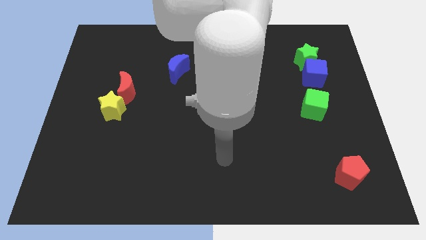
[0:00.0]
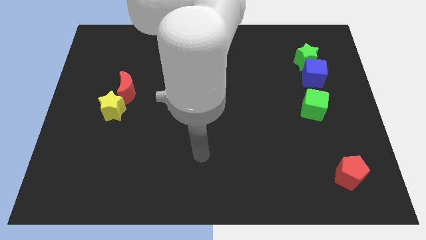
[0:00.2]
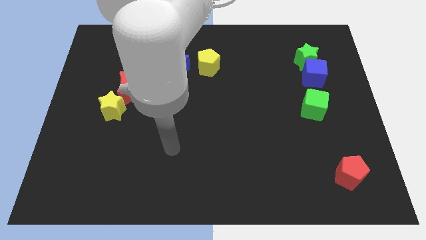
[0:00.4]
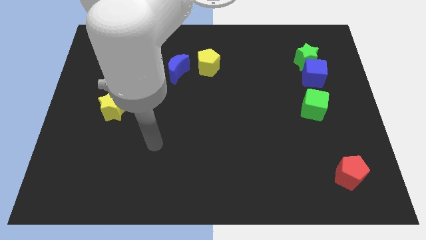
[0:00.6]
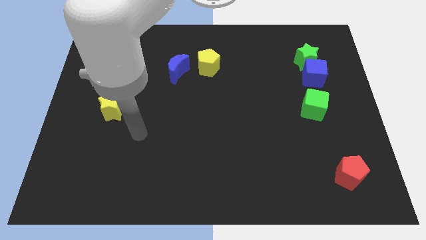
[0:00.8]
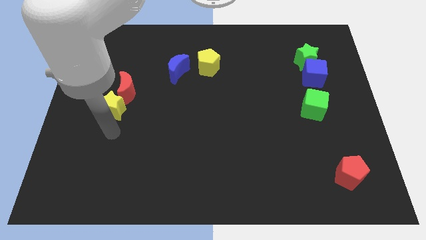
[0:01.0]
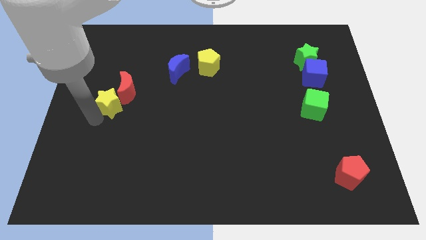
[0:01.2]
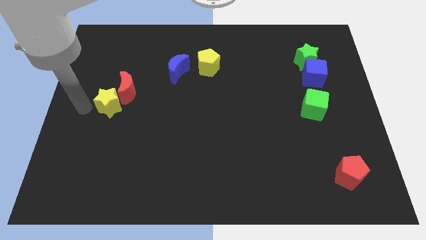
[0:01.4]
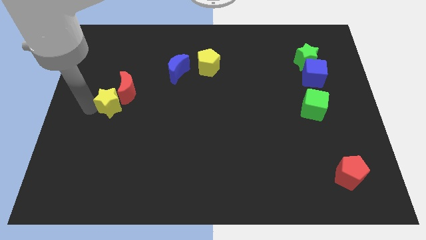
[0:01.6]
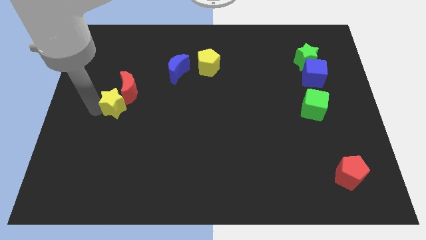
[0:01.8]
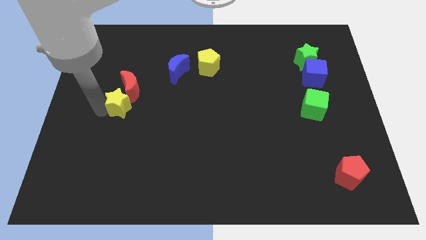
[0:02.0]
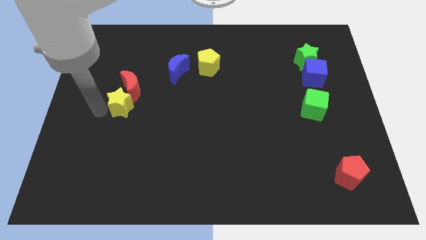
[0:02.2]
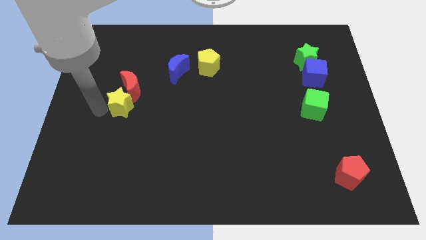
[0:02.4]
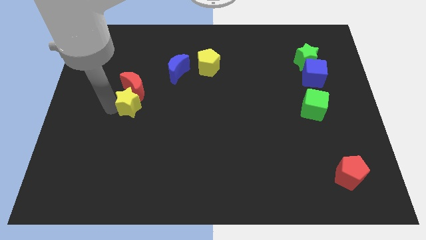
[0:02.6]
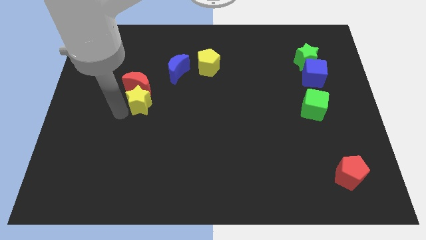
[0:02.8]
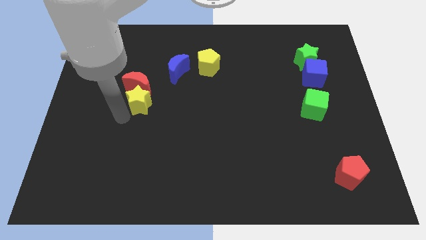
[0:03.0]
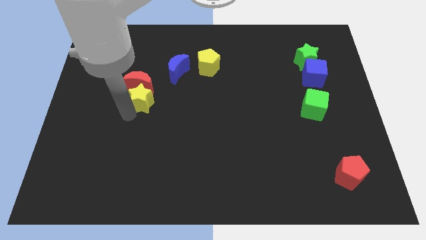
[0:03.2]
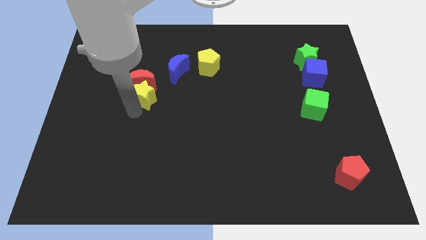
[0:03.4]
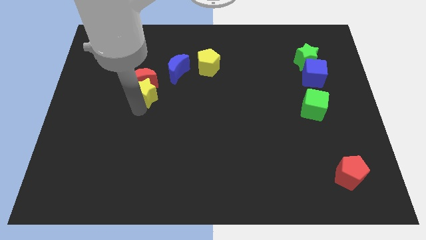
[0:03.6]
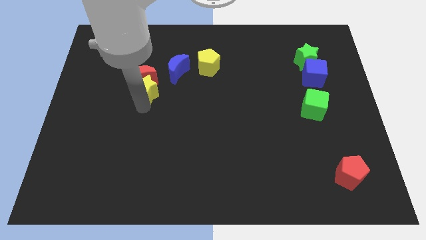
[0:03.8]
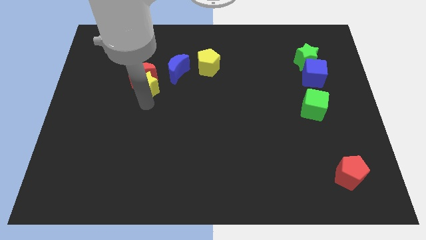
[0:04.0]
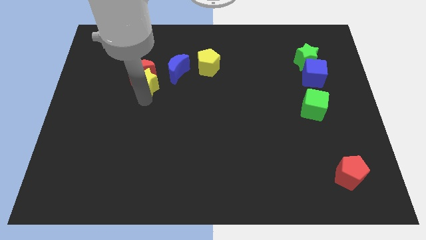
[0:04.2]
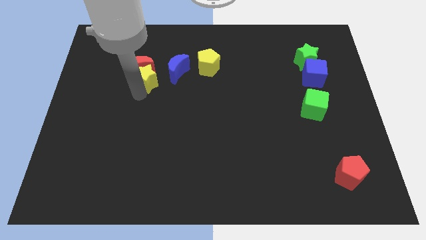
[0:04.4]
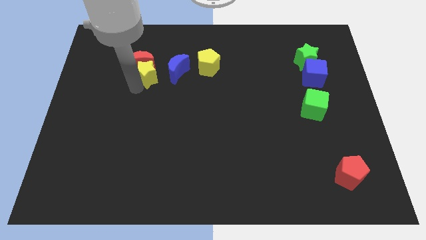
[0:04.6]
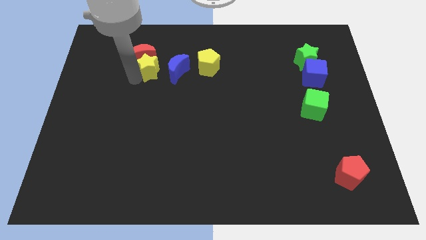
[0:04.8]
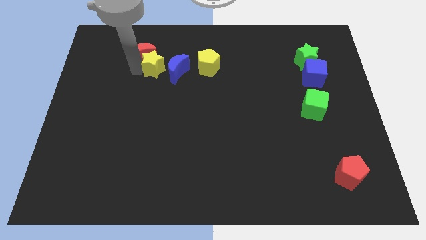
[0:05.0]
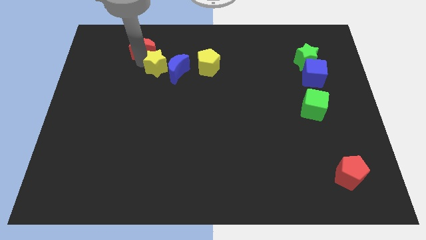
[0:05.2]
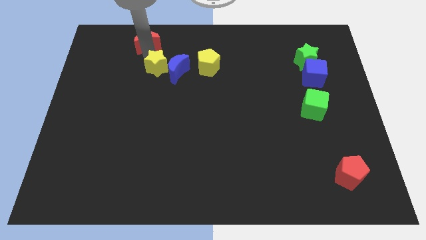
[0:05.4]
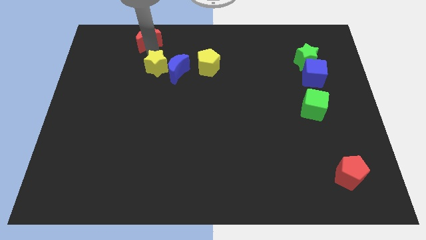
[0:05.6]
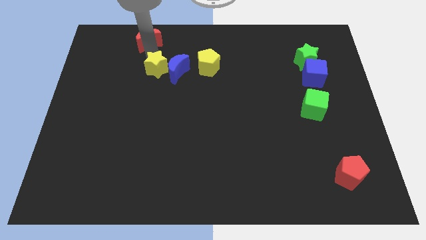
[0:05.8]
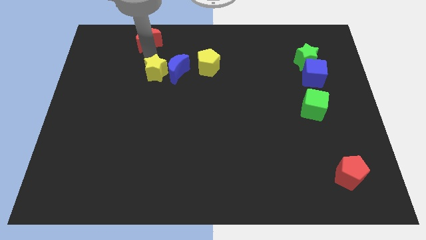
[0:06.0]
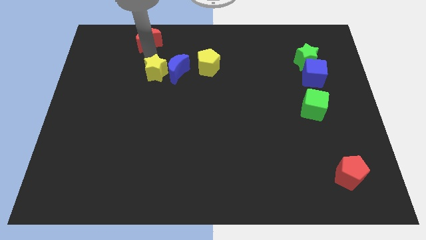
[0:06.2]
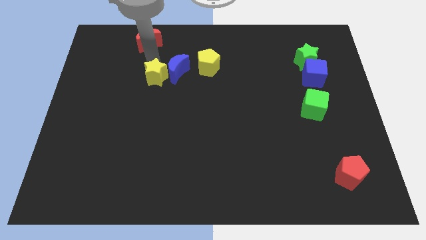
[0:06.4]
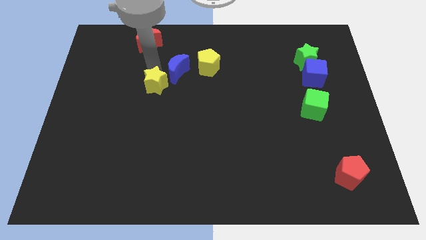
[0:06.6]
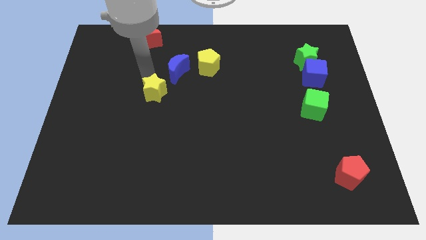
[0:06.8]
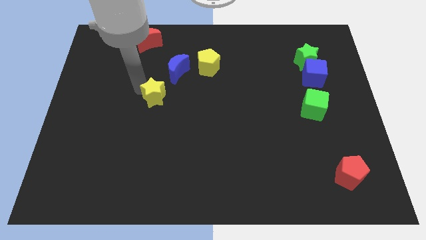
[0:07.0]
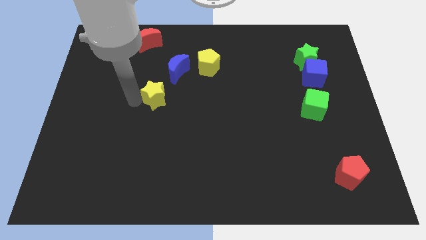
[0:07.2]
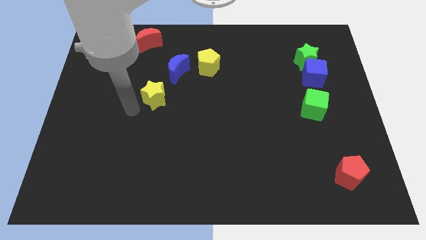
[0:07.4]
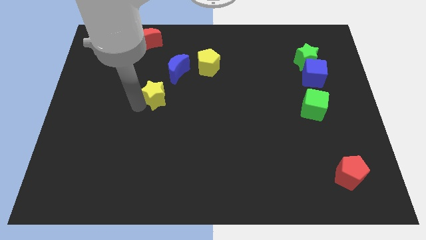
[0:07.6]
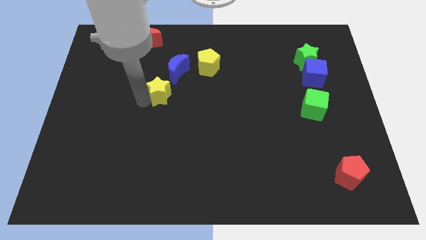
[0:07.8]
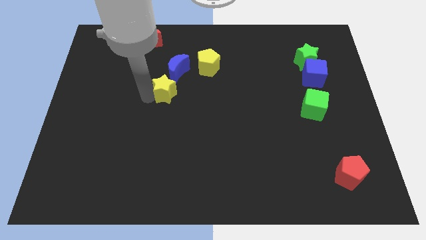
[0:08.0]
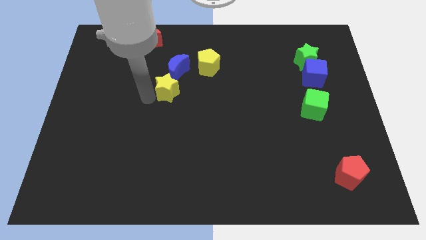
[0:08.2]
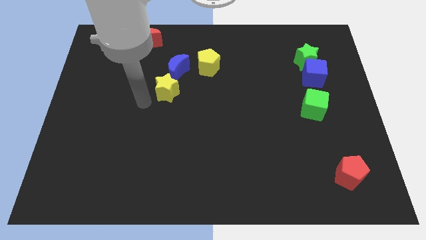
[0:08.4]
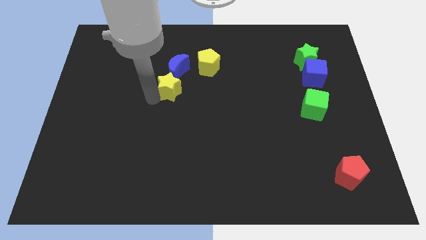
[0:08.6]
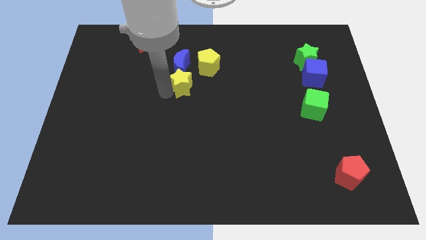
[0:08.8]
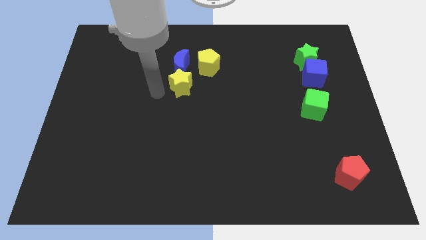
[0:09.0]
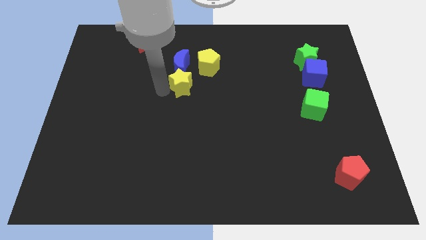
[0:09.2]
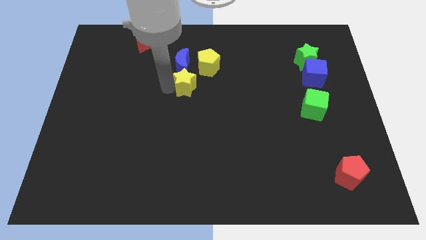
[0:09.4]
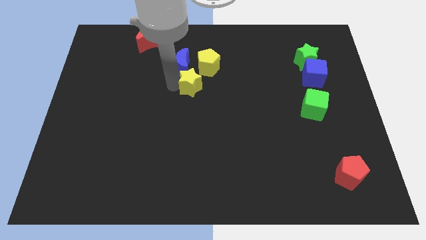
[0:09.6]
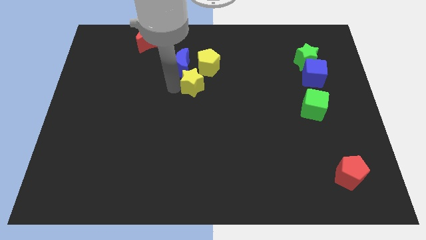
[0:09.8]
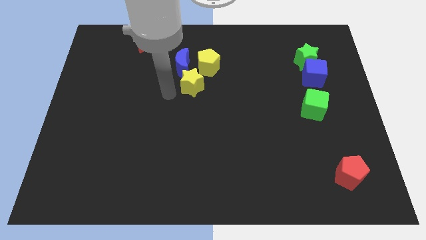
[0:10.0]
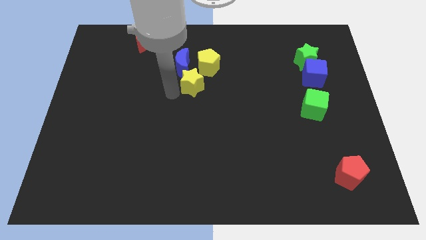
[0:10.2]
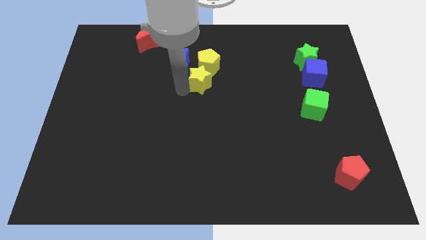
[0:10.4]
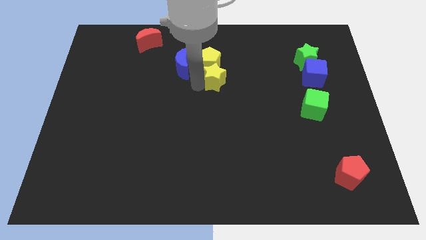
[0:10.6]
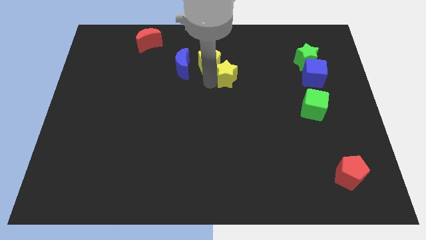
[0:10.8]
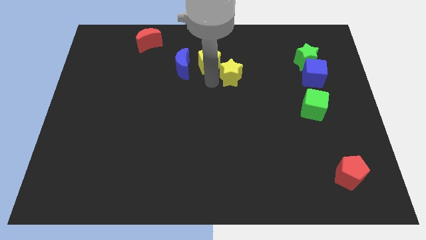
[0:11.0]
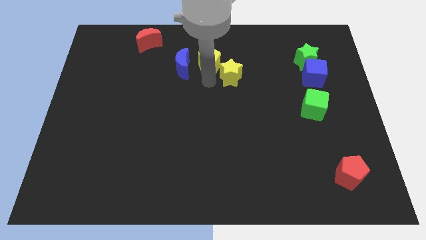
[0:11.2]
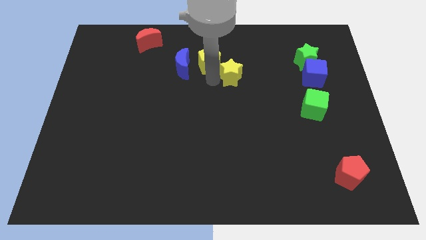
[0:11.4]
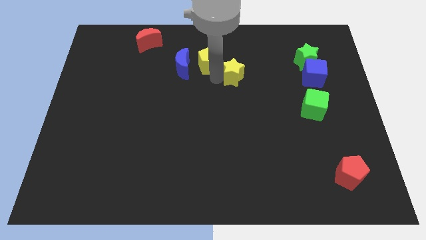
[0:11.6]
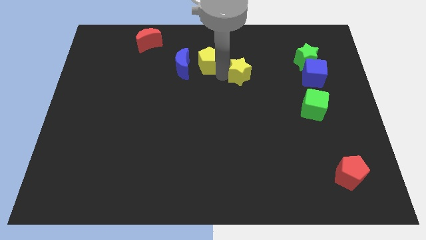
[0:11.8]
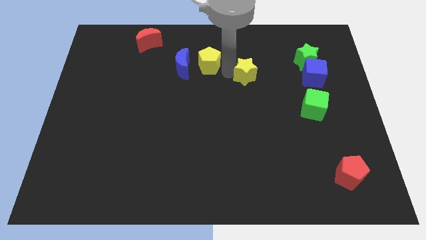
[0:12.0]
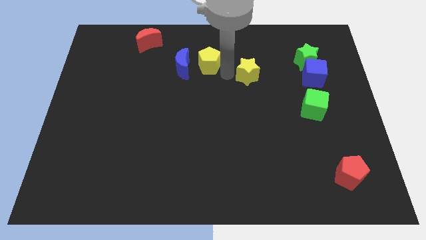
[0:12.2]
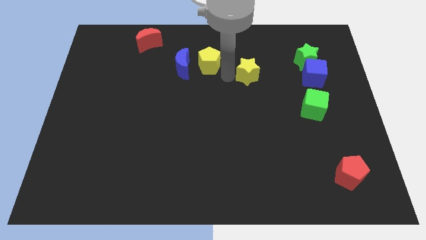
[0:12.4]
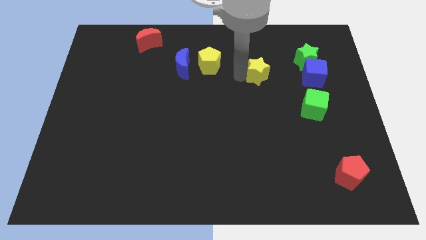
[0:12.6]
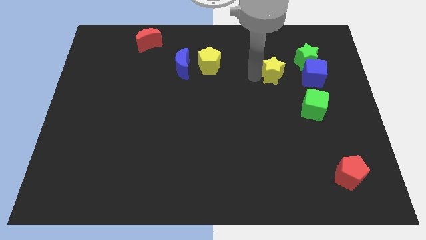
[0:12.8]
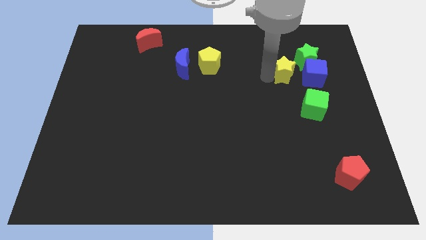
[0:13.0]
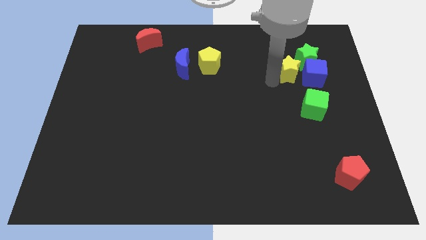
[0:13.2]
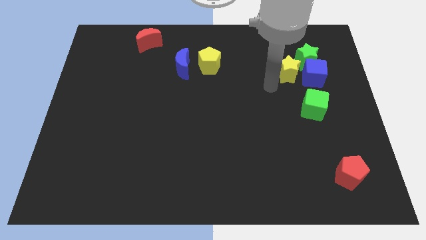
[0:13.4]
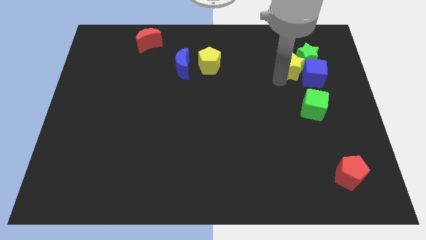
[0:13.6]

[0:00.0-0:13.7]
put the yellow star next to the green star

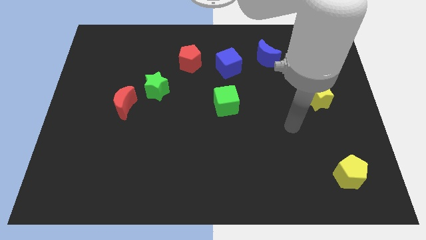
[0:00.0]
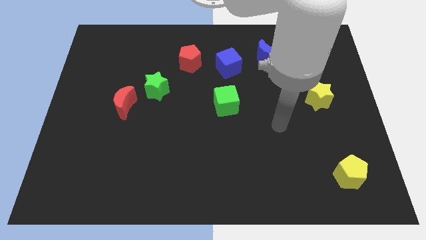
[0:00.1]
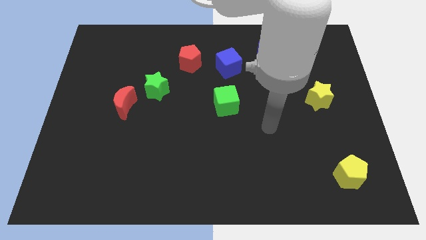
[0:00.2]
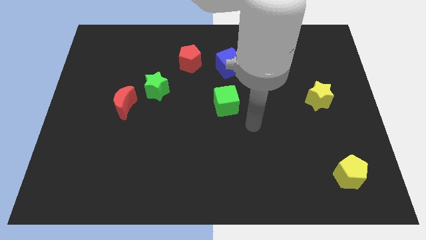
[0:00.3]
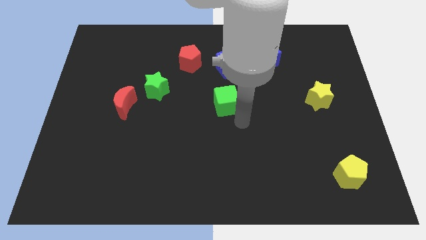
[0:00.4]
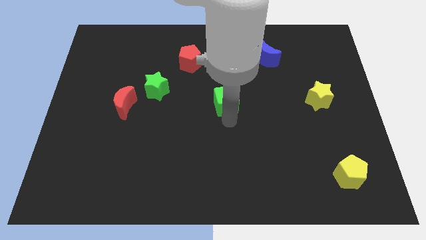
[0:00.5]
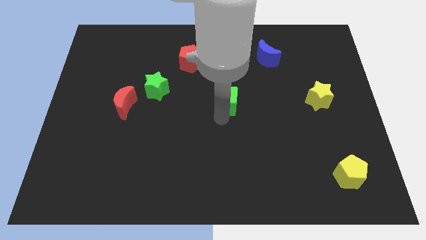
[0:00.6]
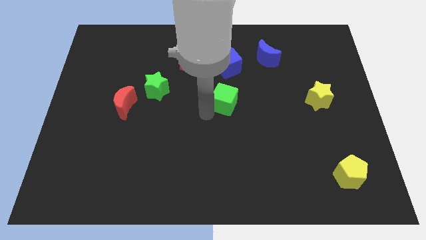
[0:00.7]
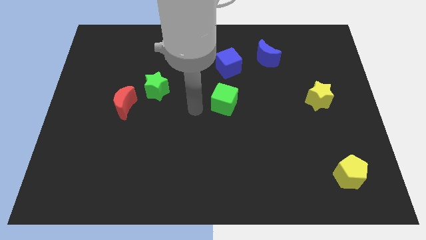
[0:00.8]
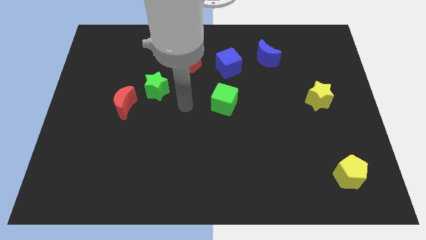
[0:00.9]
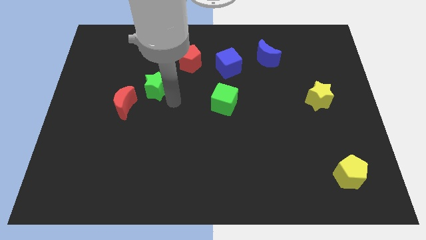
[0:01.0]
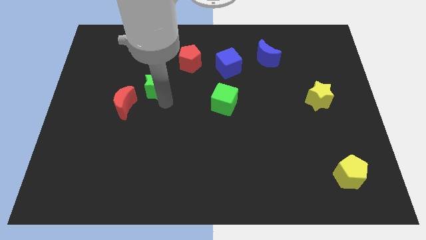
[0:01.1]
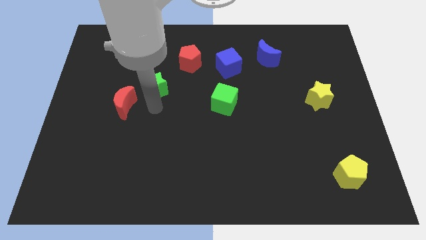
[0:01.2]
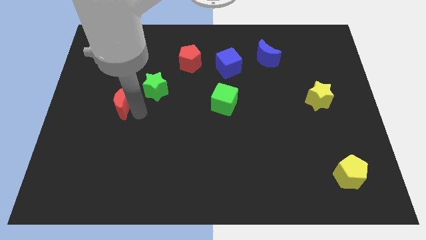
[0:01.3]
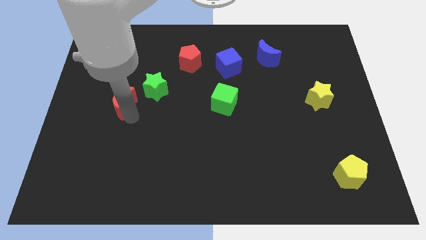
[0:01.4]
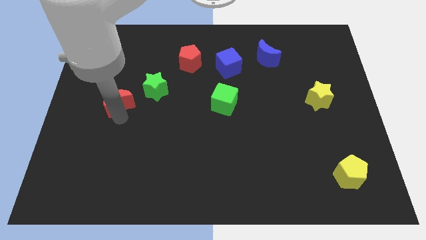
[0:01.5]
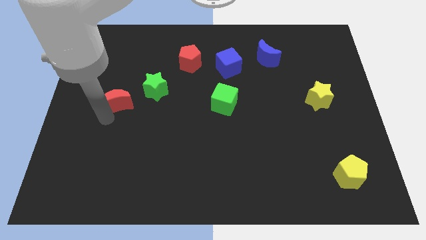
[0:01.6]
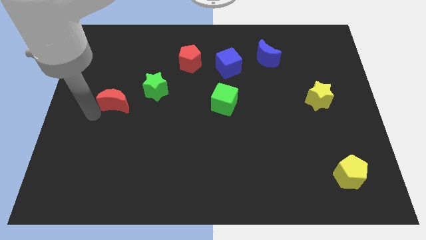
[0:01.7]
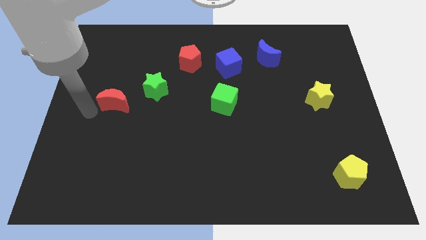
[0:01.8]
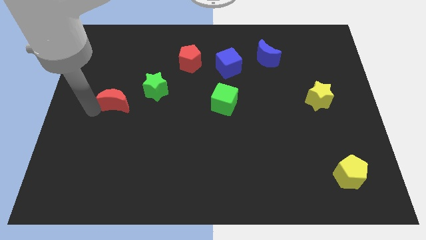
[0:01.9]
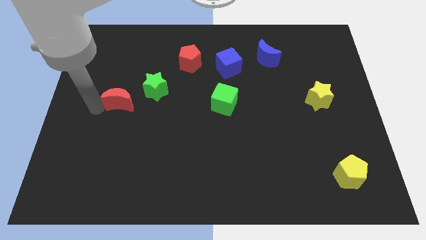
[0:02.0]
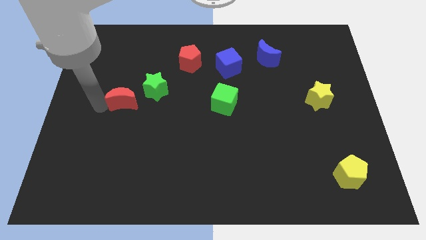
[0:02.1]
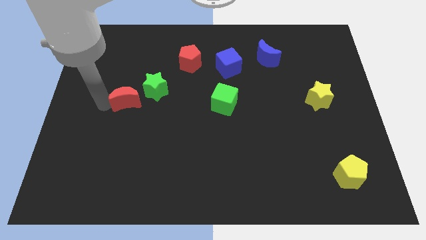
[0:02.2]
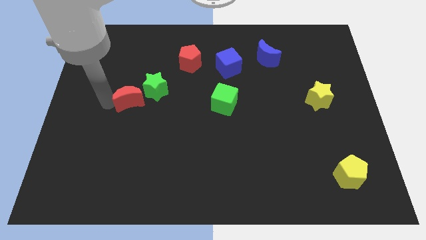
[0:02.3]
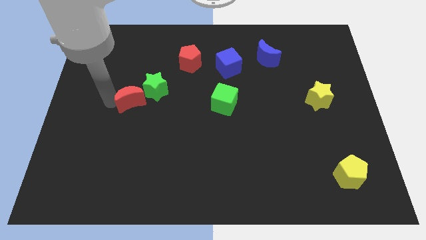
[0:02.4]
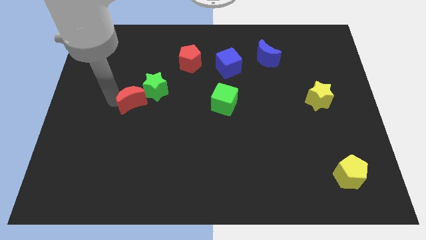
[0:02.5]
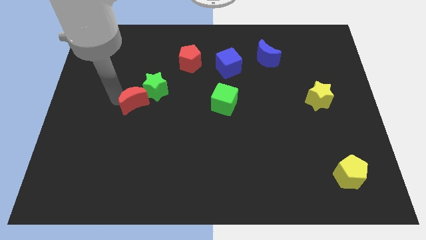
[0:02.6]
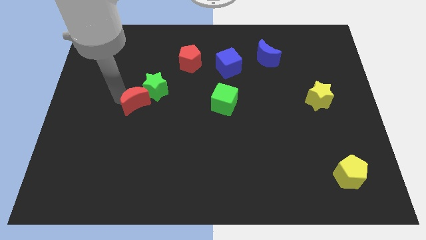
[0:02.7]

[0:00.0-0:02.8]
push the red moon to the green star
